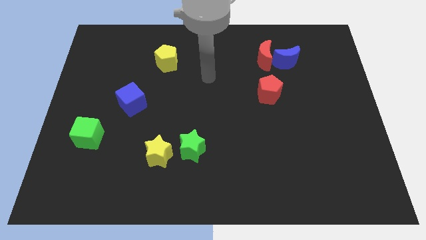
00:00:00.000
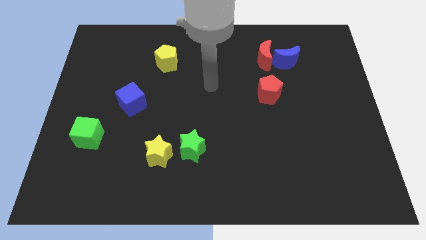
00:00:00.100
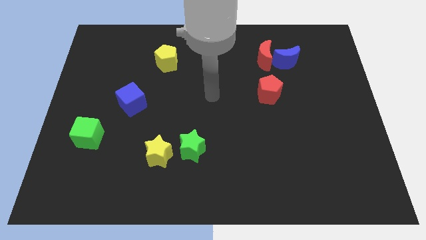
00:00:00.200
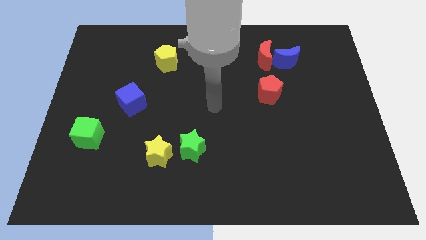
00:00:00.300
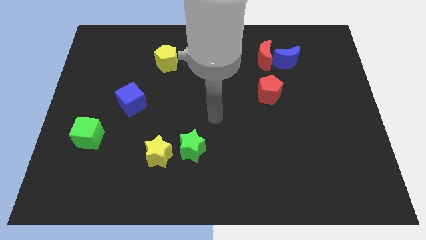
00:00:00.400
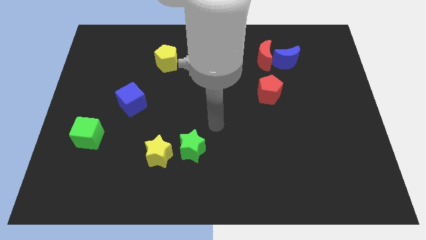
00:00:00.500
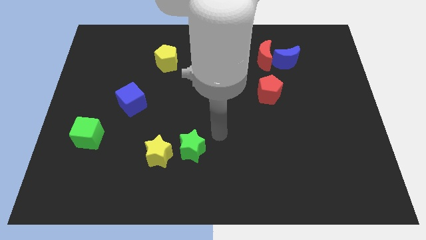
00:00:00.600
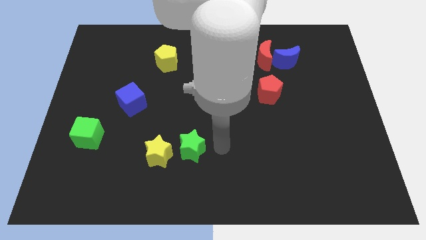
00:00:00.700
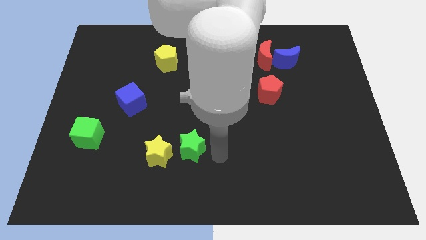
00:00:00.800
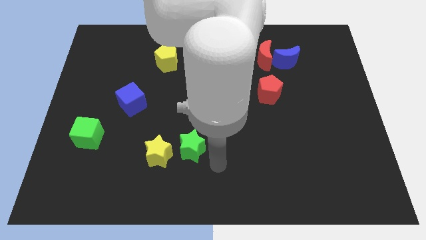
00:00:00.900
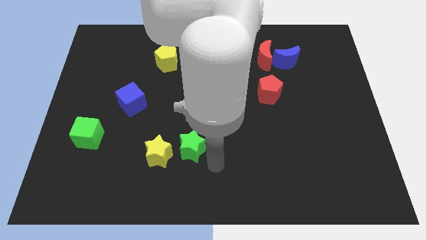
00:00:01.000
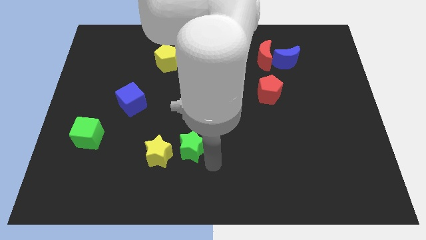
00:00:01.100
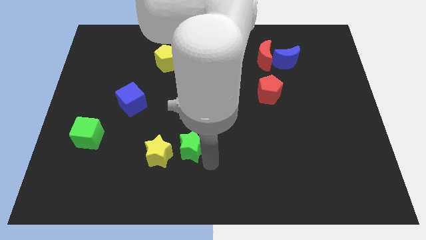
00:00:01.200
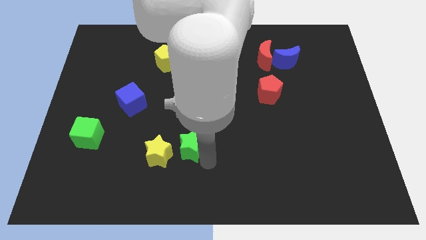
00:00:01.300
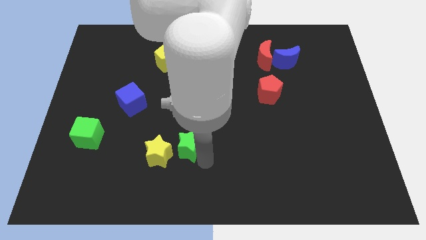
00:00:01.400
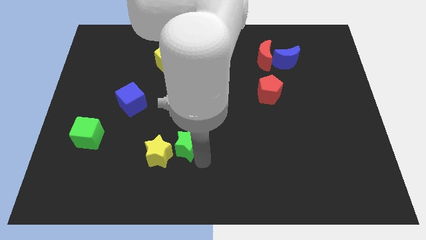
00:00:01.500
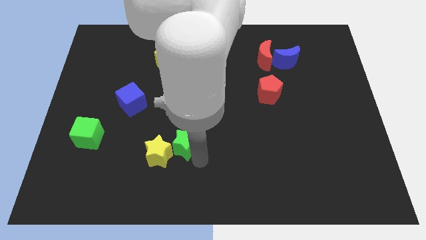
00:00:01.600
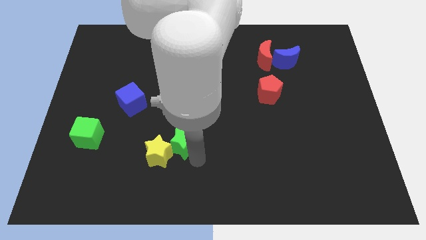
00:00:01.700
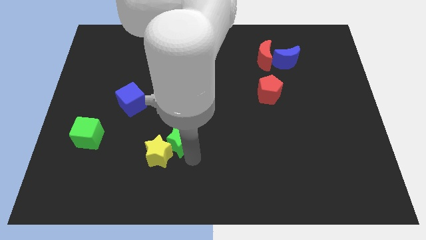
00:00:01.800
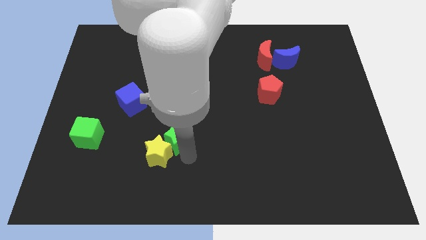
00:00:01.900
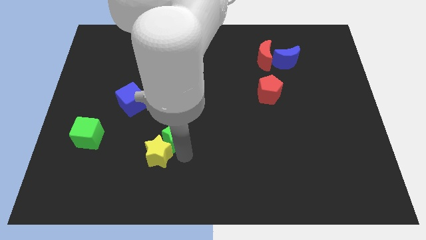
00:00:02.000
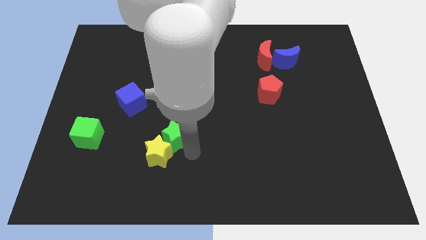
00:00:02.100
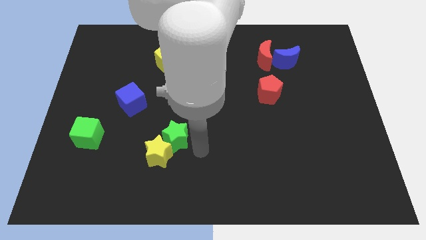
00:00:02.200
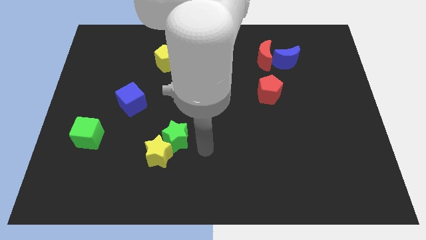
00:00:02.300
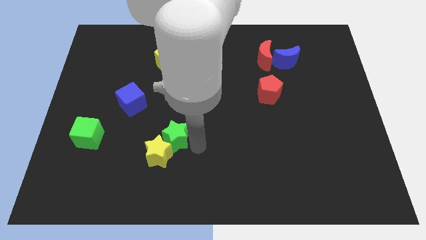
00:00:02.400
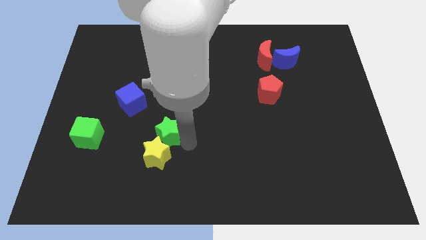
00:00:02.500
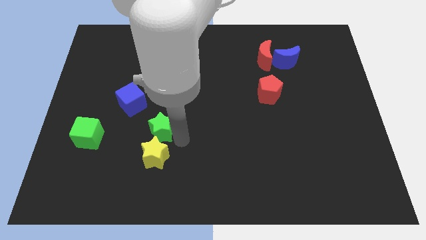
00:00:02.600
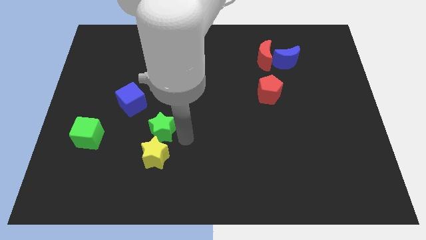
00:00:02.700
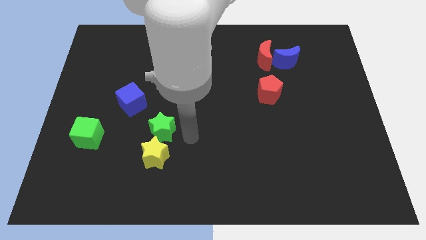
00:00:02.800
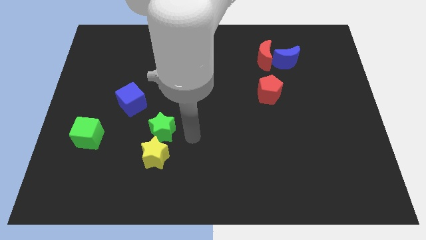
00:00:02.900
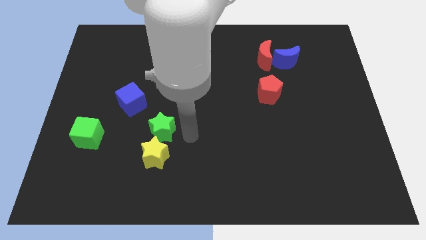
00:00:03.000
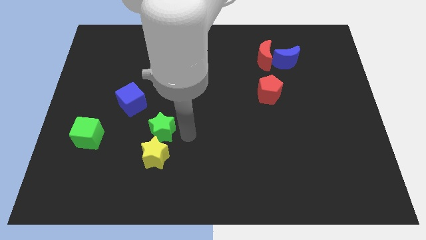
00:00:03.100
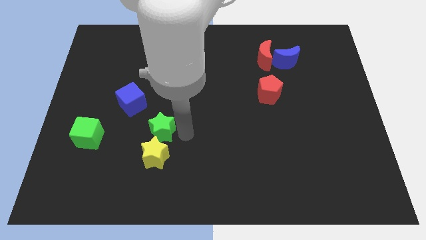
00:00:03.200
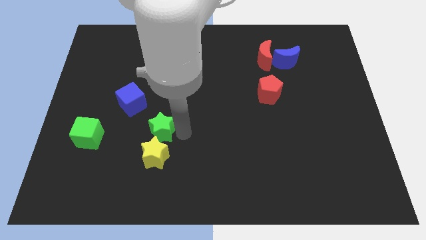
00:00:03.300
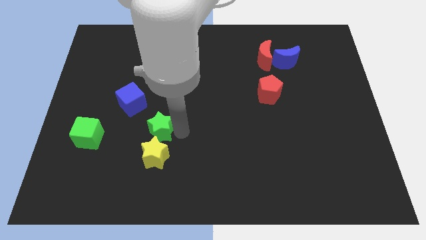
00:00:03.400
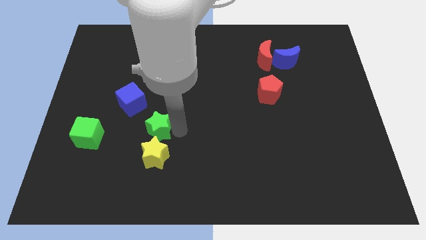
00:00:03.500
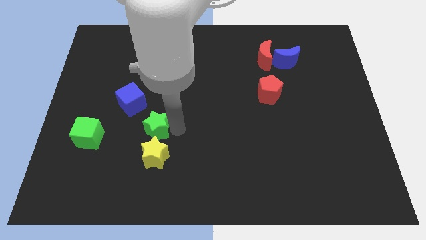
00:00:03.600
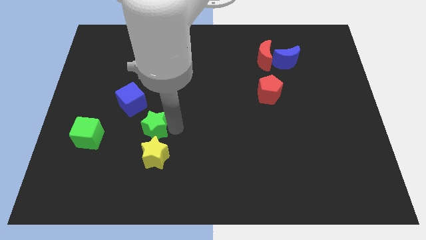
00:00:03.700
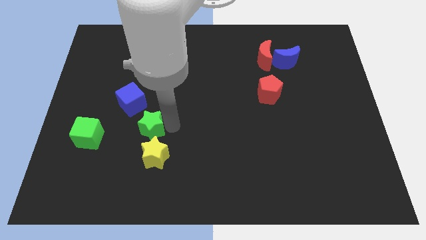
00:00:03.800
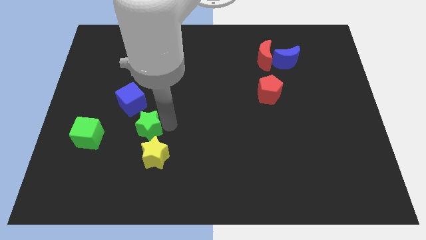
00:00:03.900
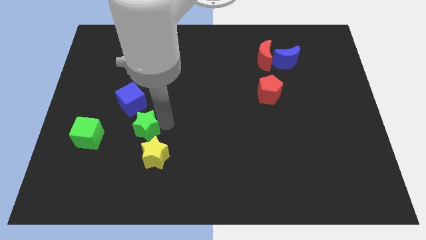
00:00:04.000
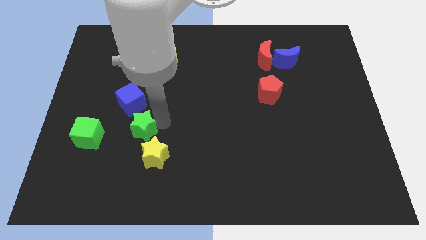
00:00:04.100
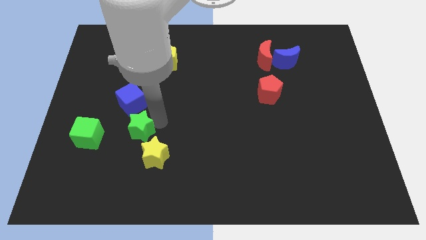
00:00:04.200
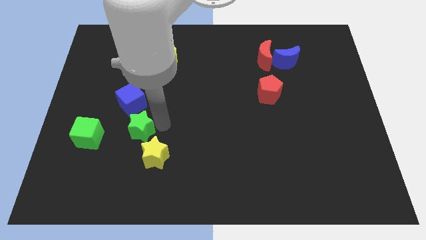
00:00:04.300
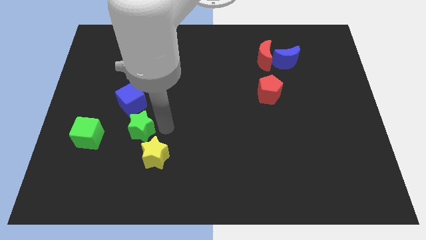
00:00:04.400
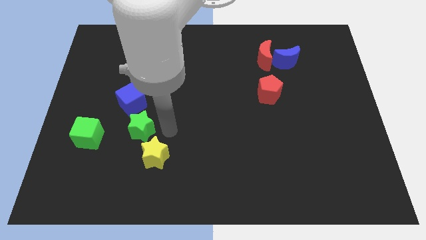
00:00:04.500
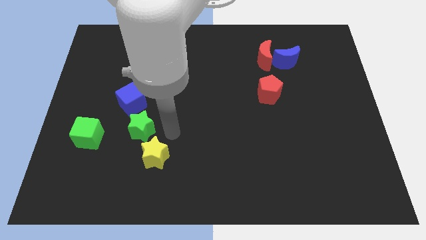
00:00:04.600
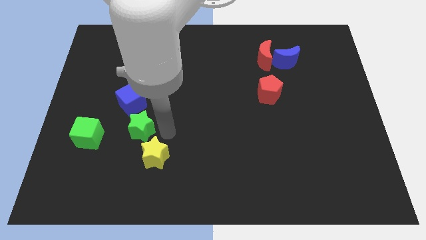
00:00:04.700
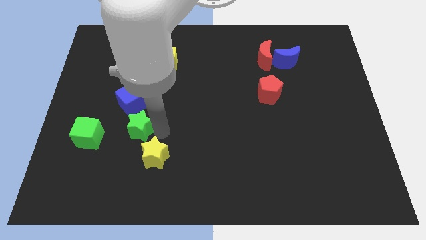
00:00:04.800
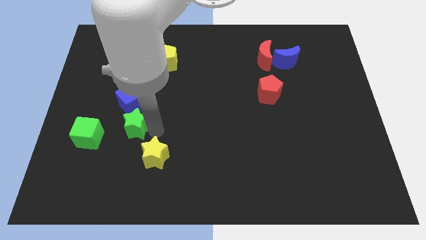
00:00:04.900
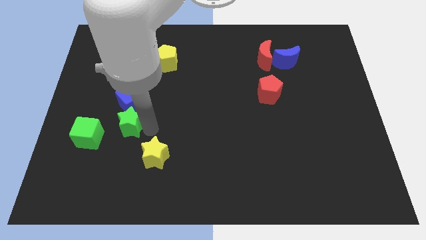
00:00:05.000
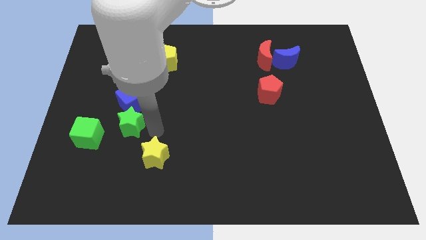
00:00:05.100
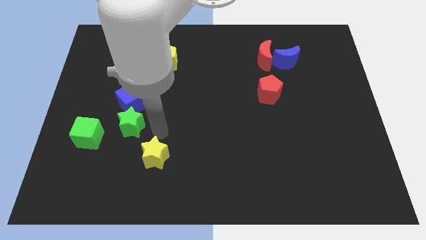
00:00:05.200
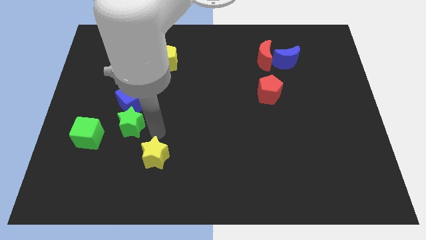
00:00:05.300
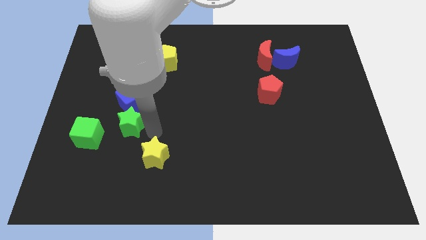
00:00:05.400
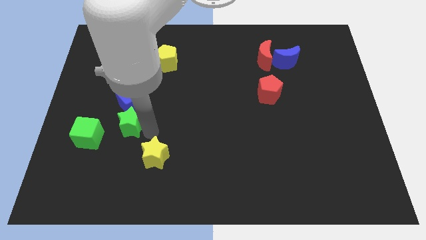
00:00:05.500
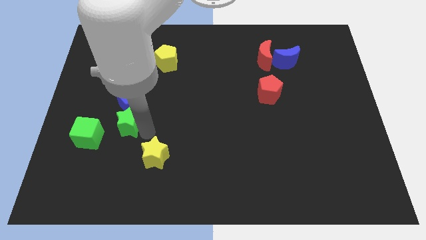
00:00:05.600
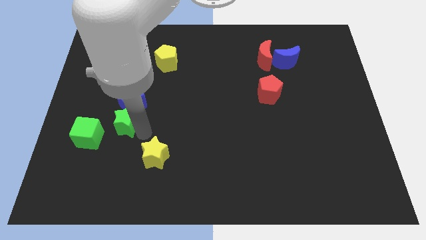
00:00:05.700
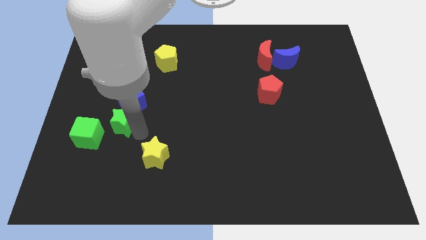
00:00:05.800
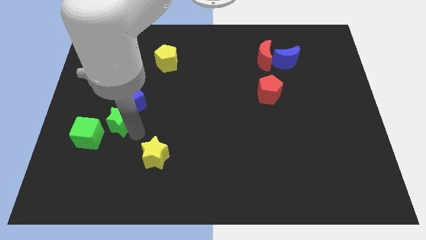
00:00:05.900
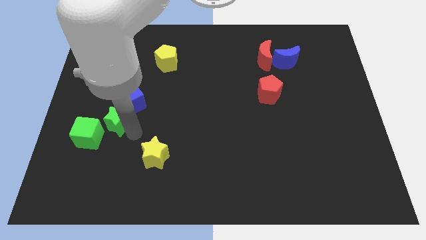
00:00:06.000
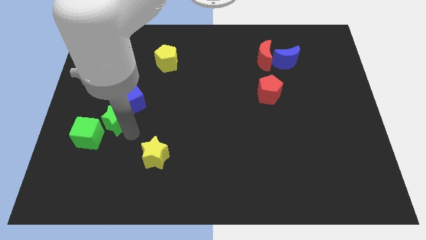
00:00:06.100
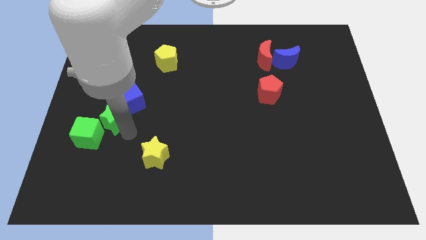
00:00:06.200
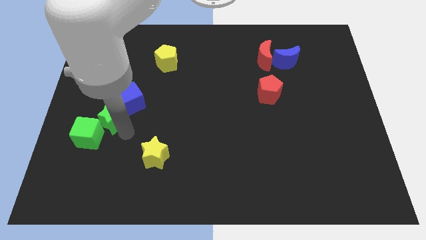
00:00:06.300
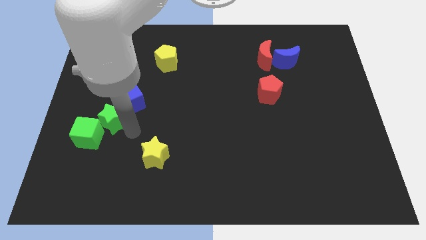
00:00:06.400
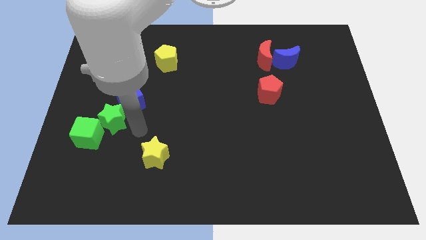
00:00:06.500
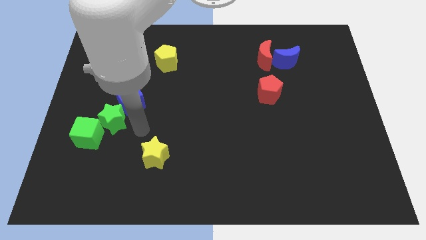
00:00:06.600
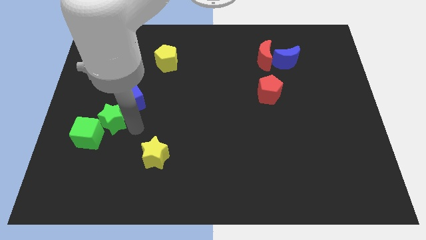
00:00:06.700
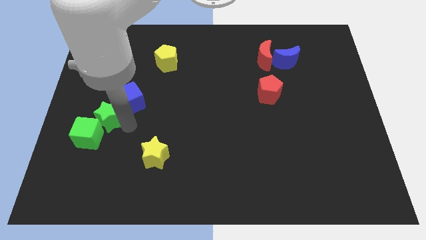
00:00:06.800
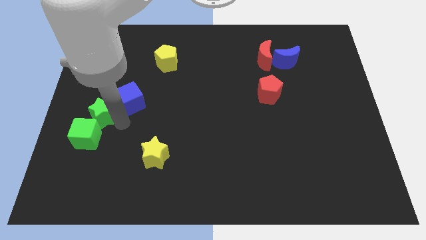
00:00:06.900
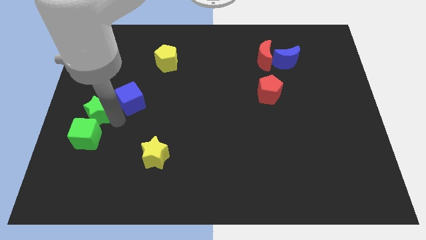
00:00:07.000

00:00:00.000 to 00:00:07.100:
push the green star to the left side
